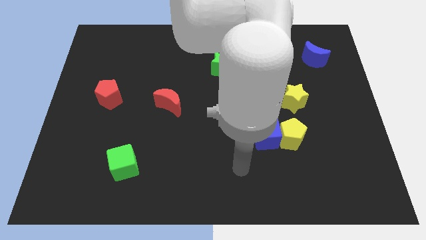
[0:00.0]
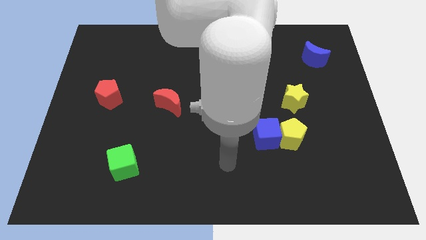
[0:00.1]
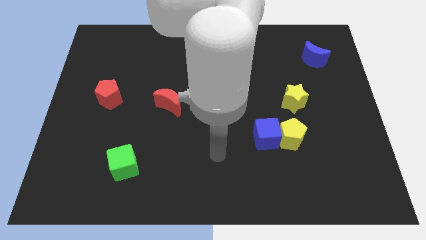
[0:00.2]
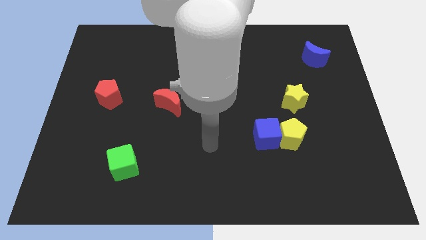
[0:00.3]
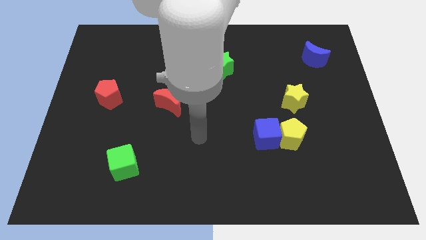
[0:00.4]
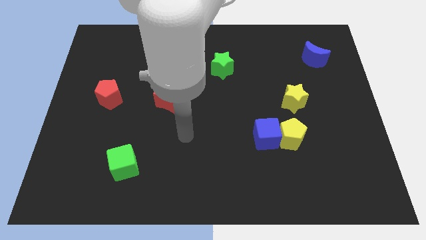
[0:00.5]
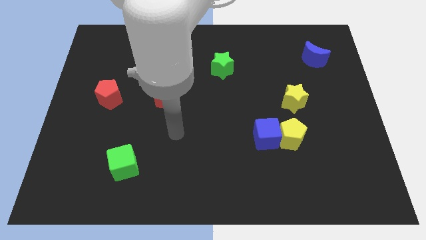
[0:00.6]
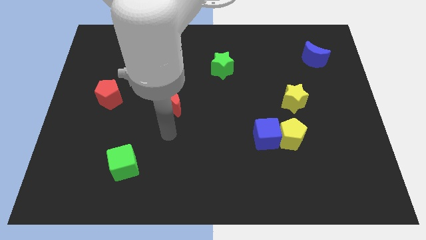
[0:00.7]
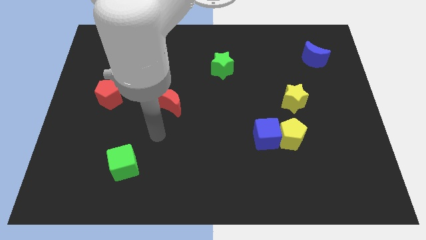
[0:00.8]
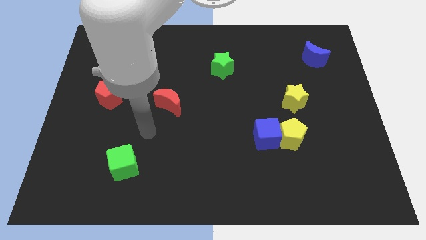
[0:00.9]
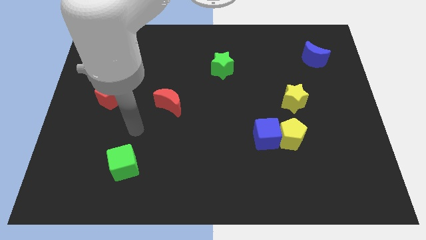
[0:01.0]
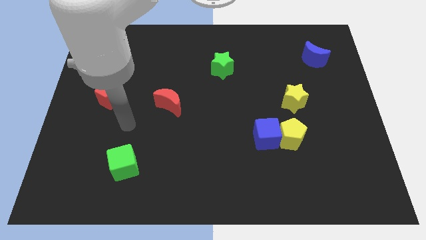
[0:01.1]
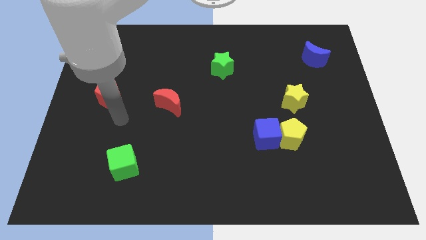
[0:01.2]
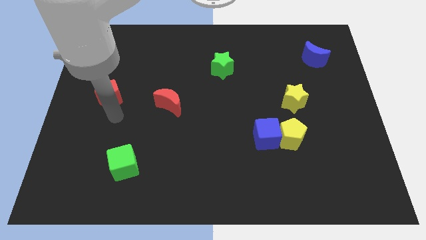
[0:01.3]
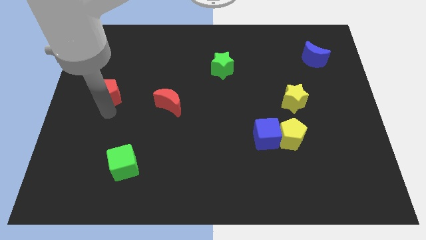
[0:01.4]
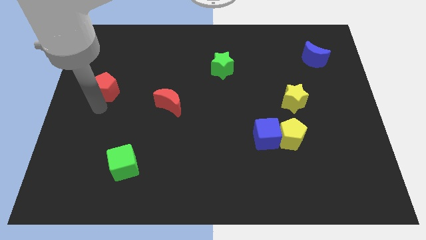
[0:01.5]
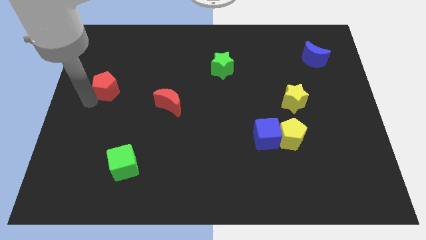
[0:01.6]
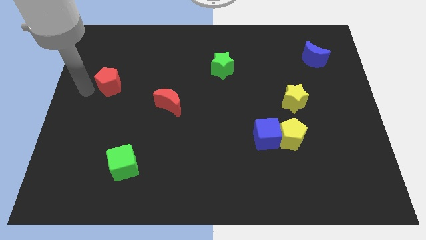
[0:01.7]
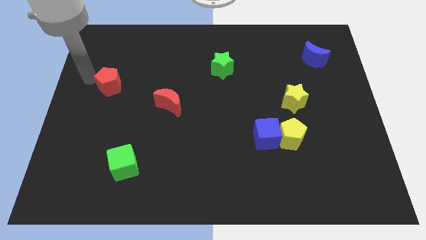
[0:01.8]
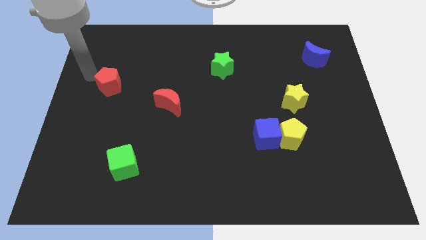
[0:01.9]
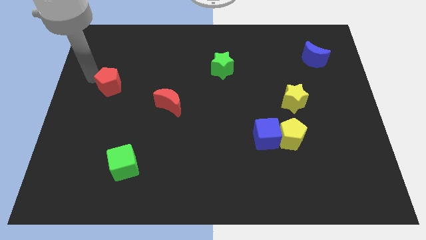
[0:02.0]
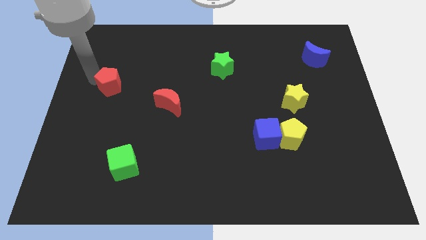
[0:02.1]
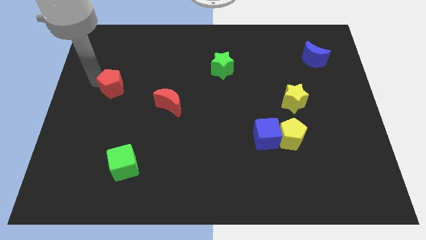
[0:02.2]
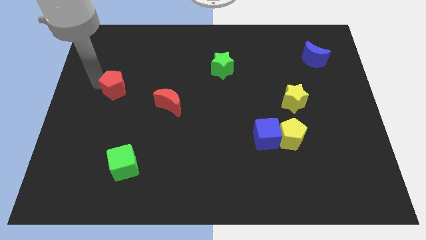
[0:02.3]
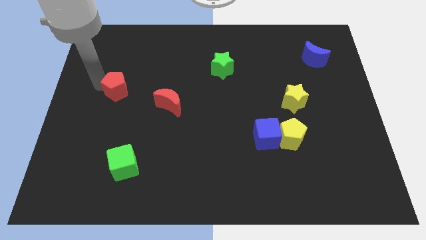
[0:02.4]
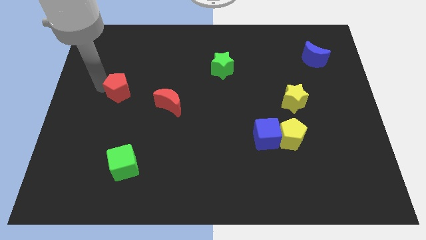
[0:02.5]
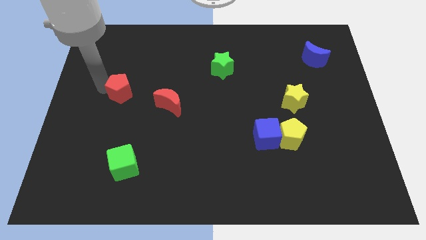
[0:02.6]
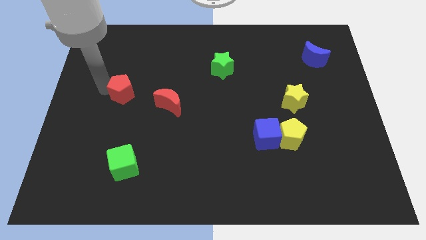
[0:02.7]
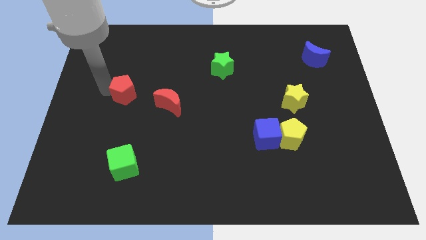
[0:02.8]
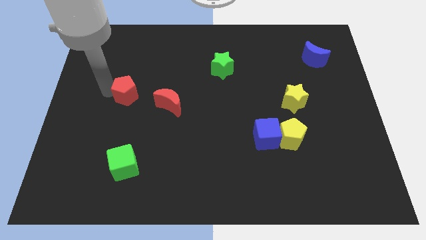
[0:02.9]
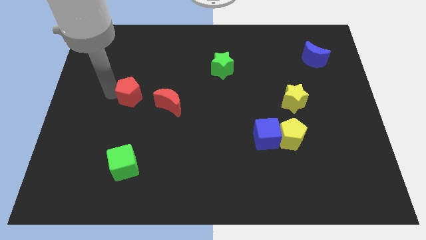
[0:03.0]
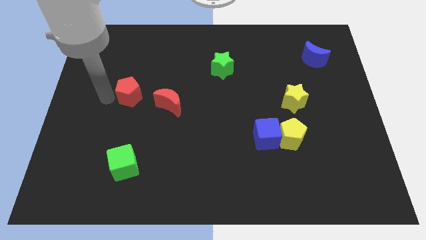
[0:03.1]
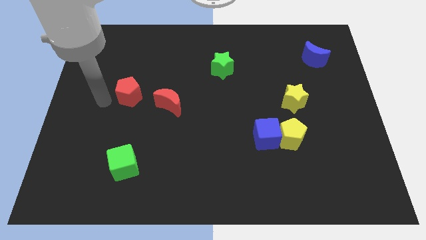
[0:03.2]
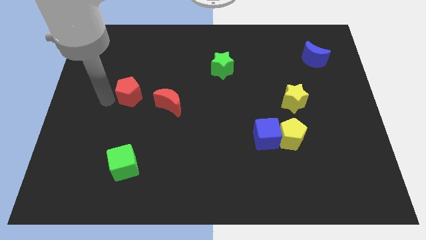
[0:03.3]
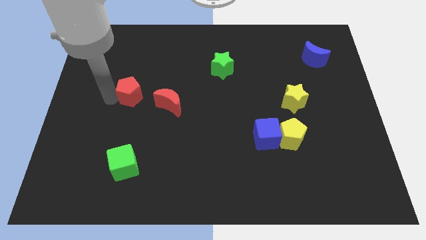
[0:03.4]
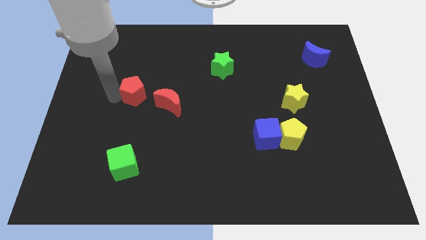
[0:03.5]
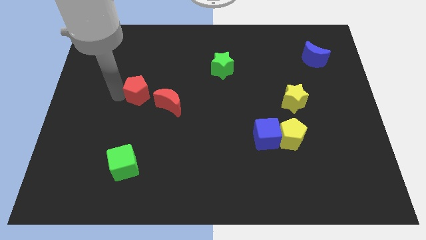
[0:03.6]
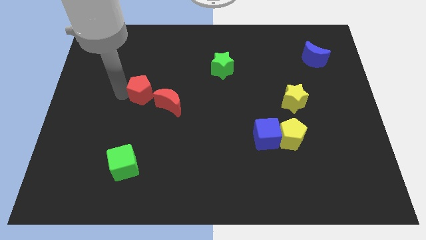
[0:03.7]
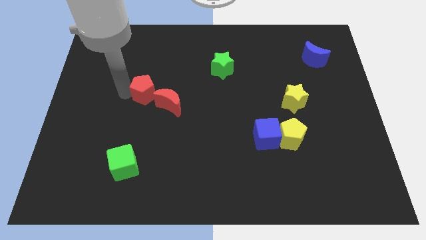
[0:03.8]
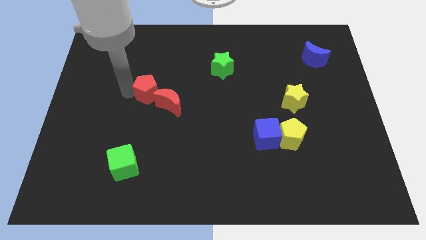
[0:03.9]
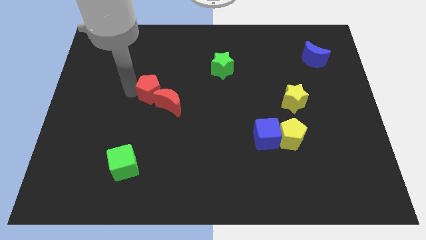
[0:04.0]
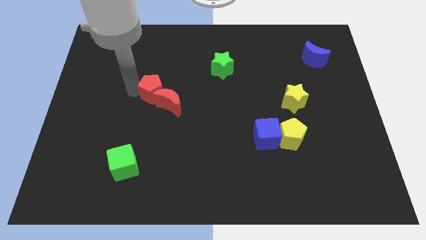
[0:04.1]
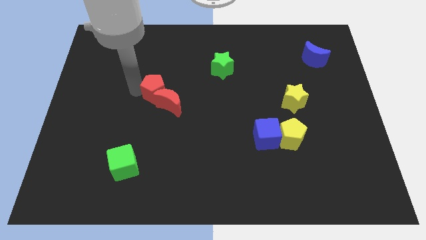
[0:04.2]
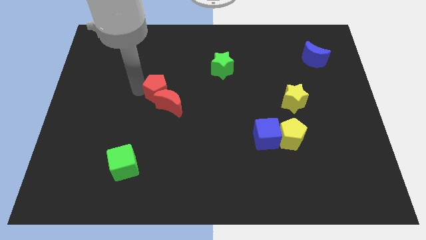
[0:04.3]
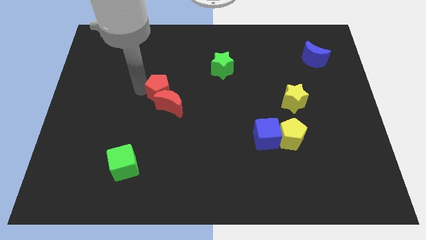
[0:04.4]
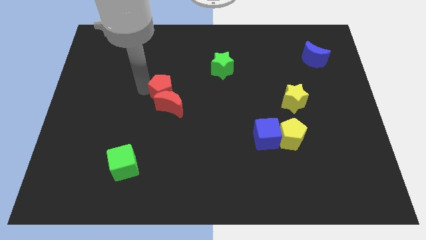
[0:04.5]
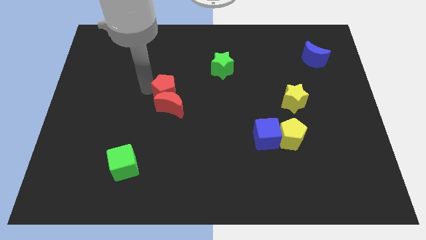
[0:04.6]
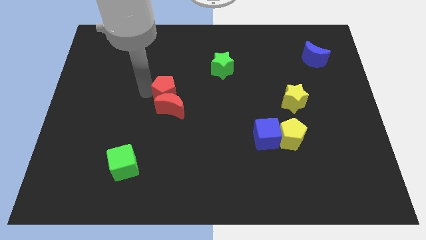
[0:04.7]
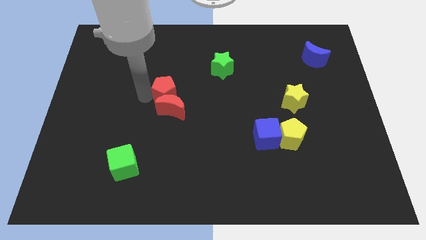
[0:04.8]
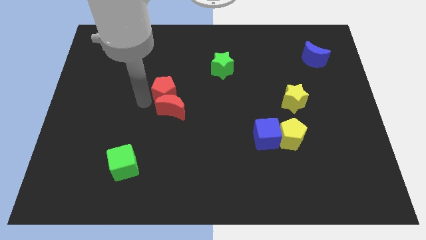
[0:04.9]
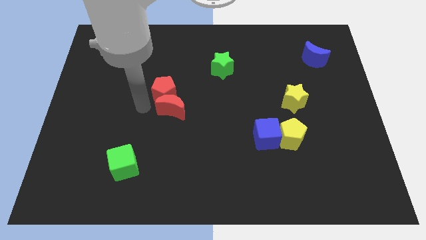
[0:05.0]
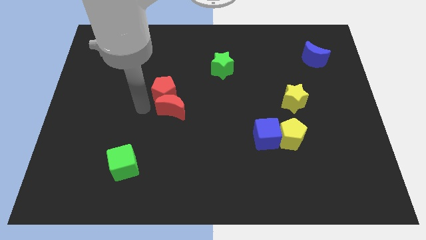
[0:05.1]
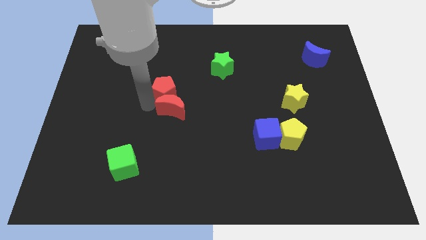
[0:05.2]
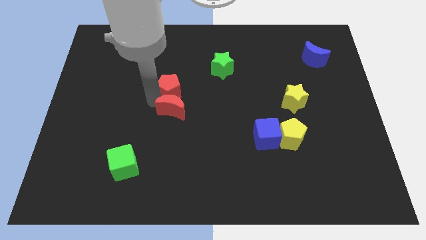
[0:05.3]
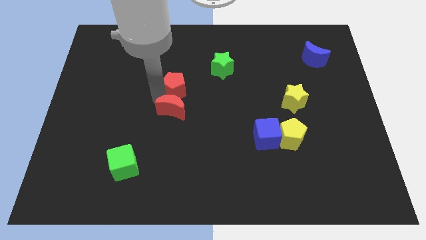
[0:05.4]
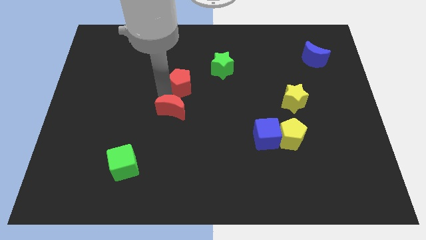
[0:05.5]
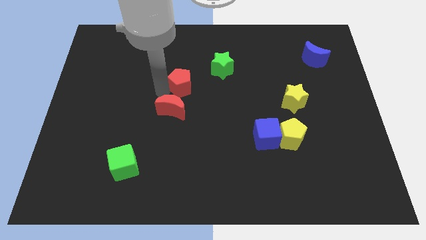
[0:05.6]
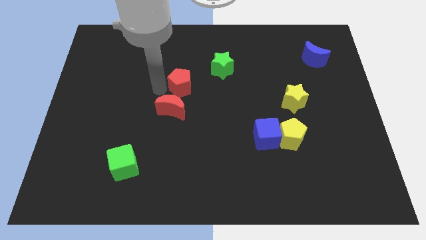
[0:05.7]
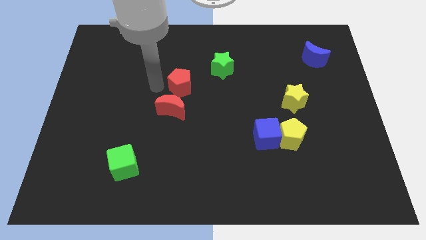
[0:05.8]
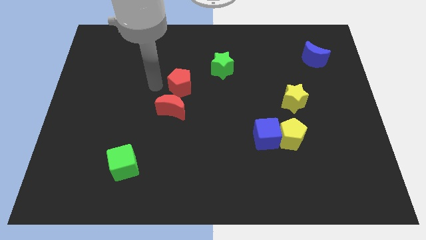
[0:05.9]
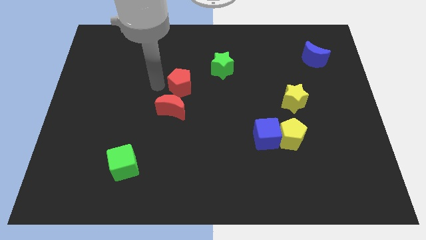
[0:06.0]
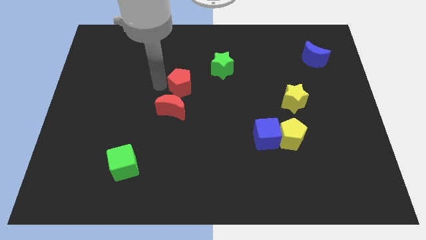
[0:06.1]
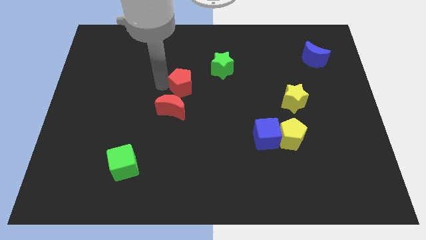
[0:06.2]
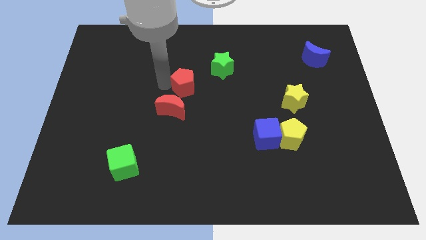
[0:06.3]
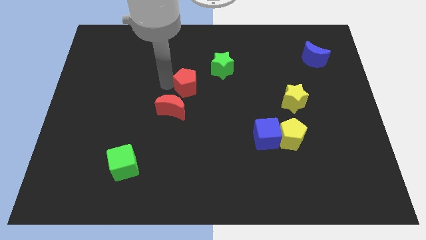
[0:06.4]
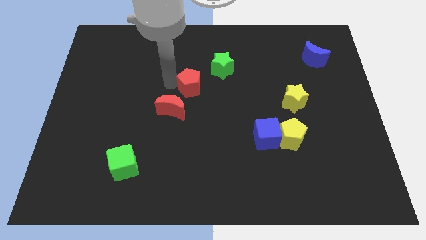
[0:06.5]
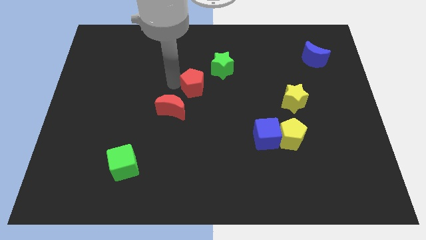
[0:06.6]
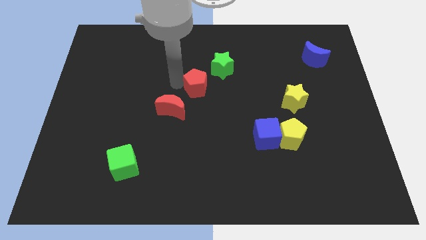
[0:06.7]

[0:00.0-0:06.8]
move the red pentagon to the right

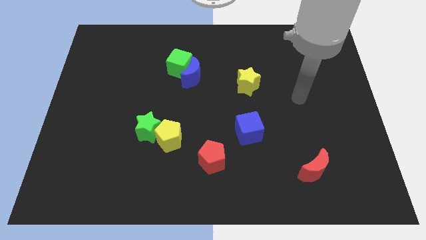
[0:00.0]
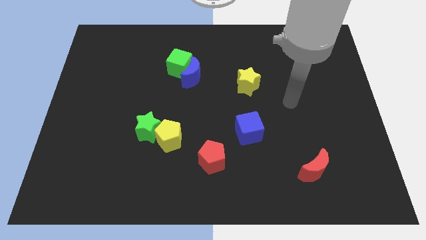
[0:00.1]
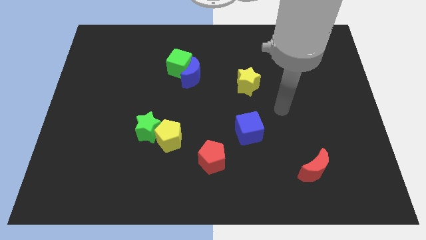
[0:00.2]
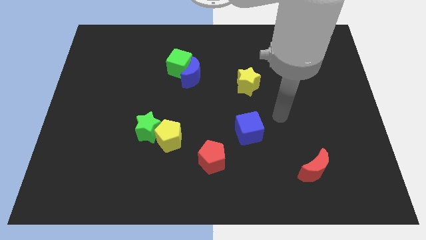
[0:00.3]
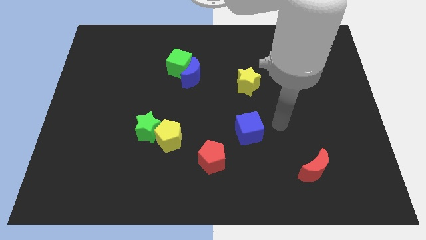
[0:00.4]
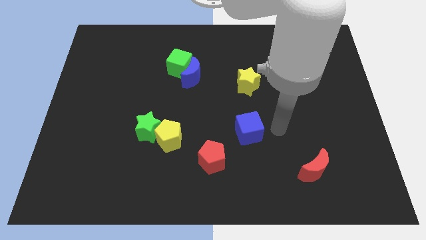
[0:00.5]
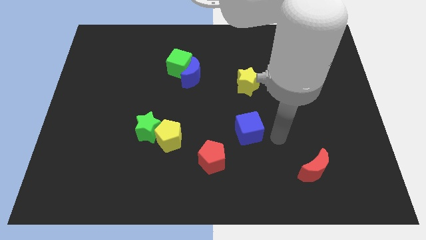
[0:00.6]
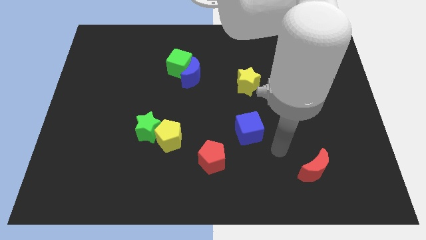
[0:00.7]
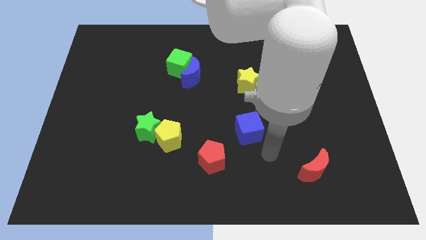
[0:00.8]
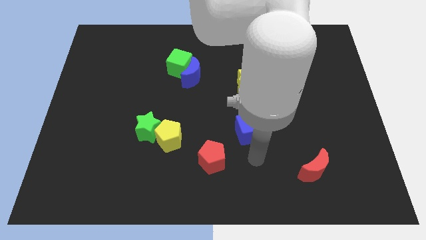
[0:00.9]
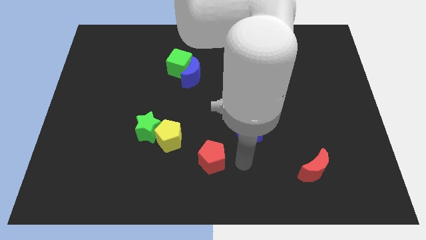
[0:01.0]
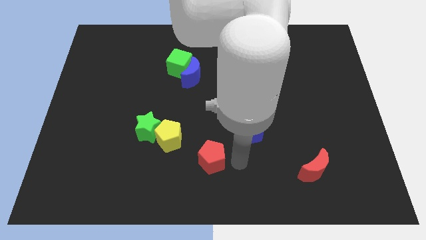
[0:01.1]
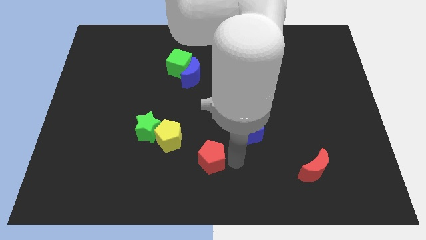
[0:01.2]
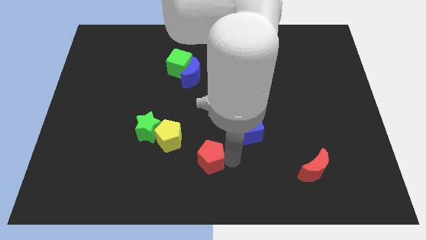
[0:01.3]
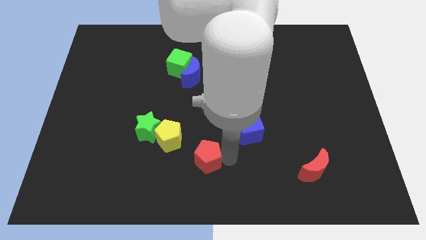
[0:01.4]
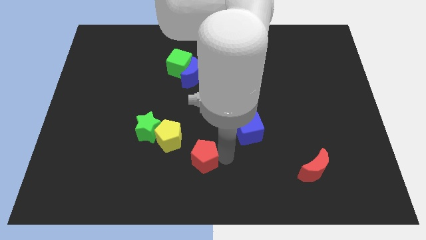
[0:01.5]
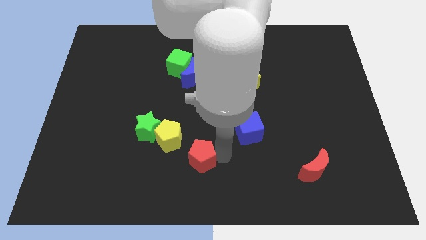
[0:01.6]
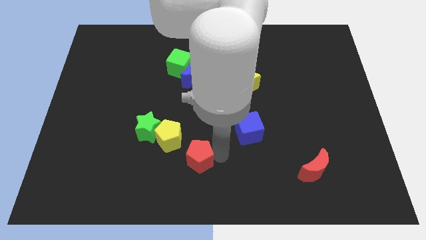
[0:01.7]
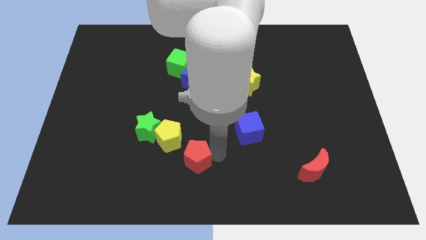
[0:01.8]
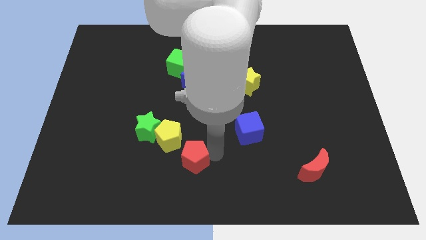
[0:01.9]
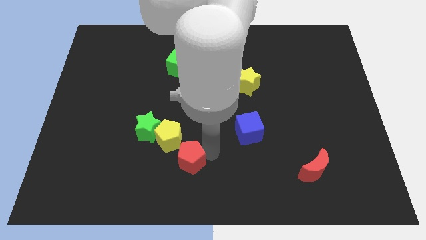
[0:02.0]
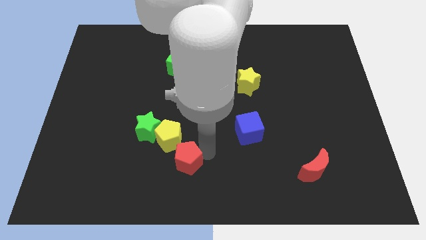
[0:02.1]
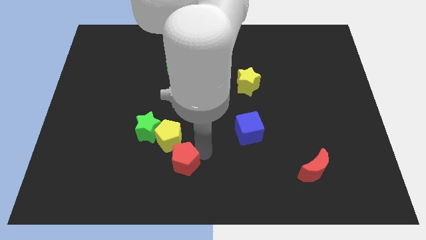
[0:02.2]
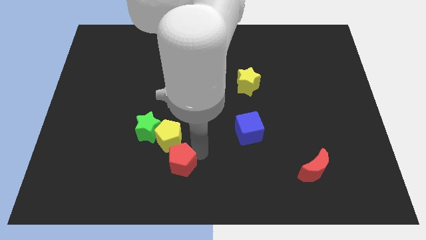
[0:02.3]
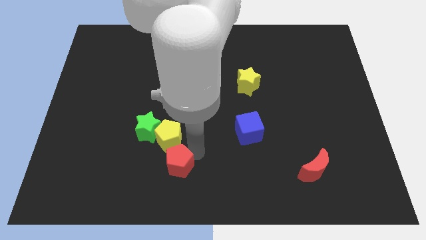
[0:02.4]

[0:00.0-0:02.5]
slightly push the red pentagon to the left
